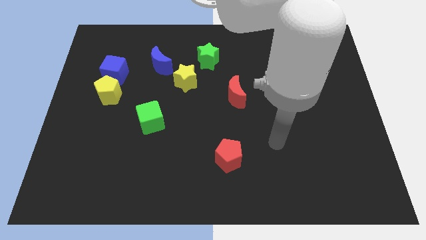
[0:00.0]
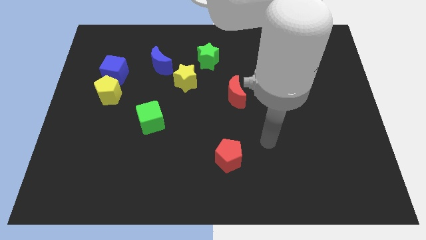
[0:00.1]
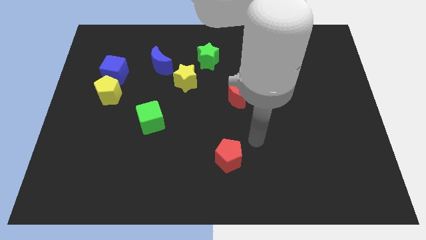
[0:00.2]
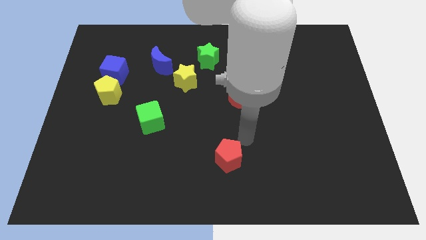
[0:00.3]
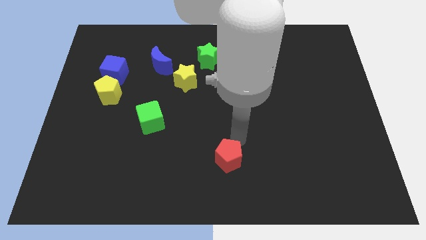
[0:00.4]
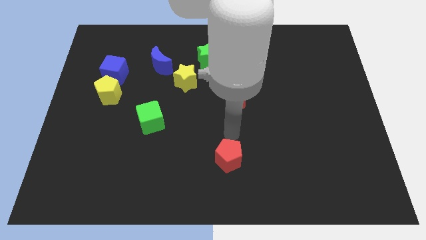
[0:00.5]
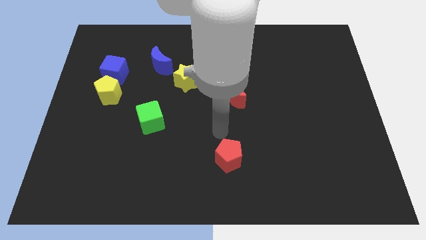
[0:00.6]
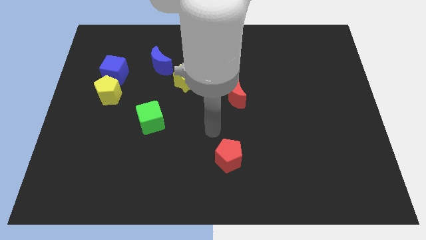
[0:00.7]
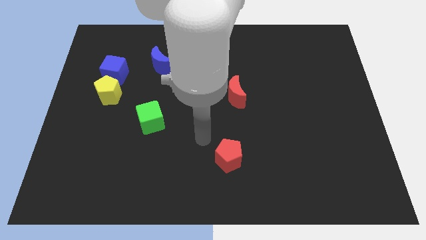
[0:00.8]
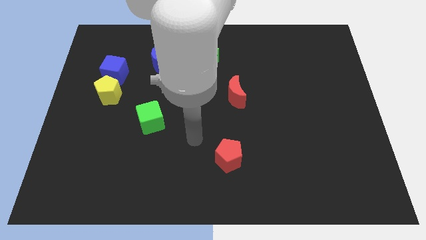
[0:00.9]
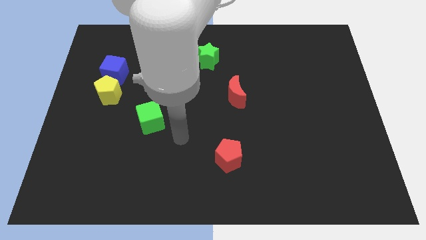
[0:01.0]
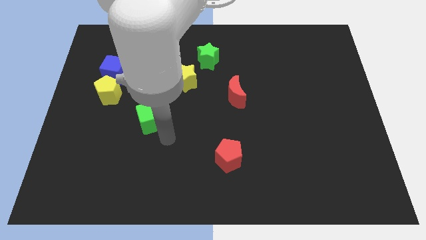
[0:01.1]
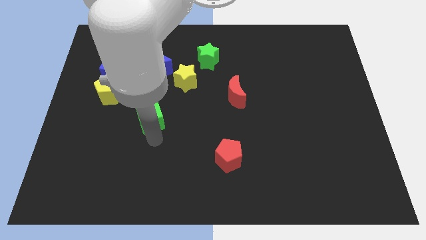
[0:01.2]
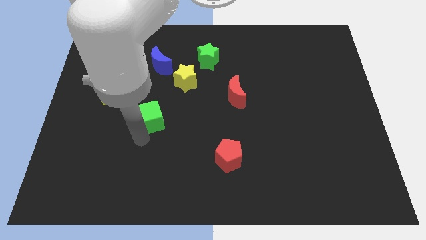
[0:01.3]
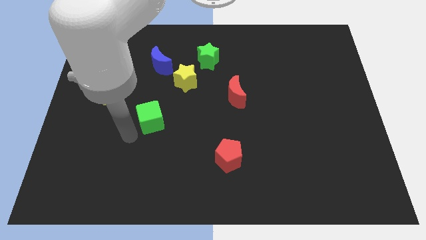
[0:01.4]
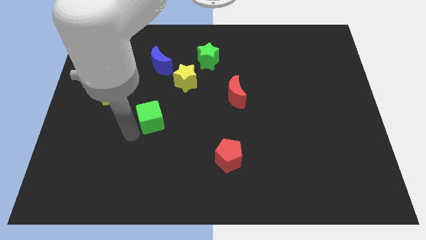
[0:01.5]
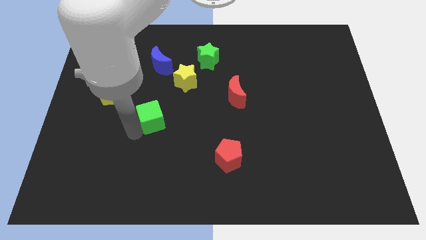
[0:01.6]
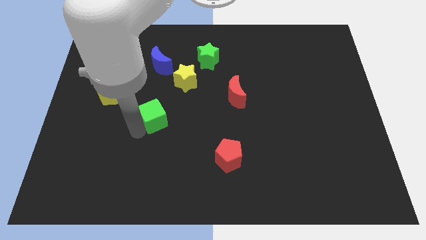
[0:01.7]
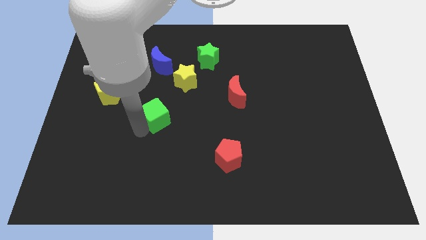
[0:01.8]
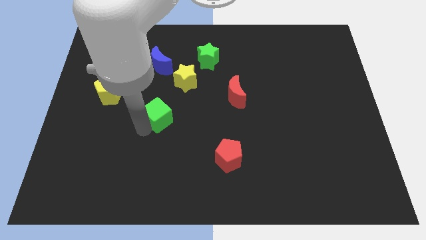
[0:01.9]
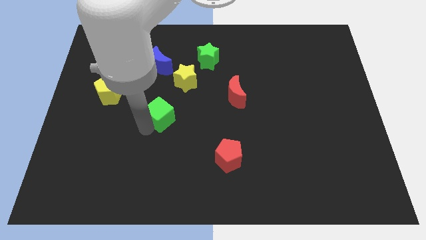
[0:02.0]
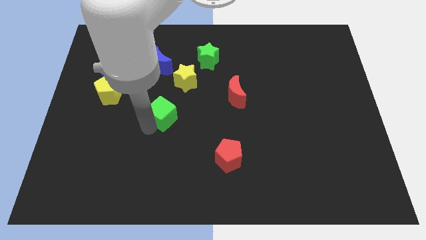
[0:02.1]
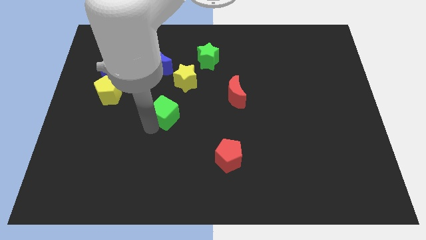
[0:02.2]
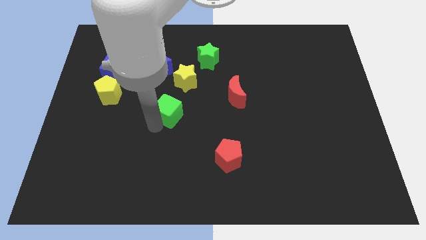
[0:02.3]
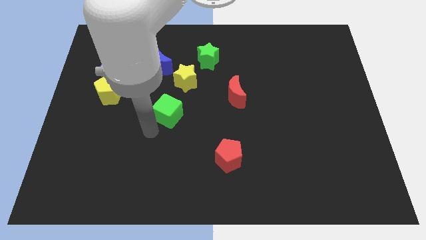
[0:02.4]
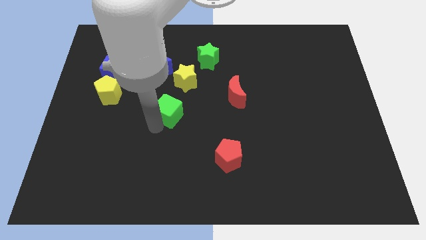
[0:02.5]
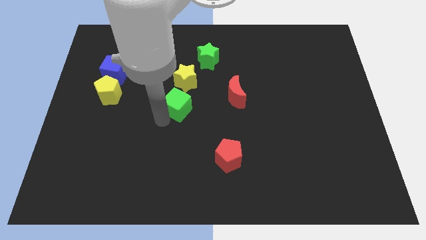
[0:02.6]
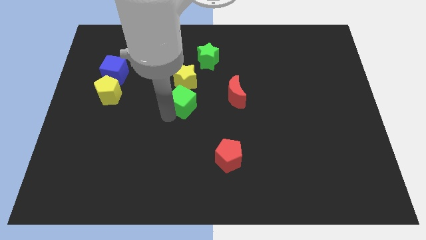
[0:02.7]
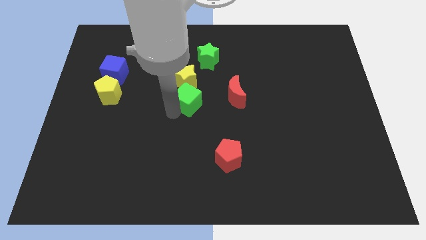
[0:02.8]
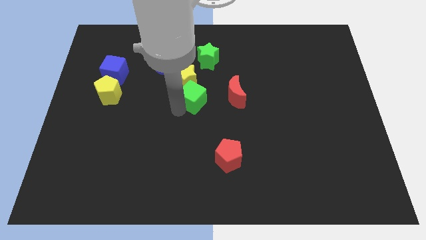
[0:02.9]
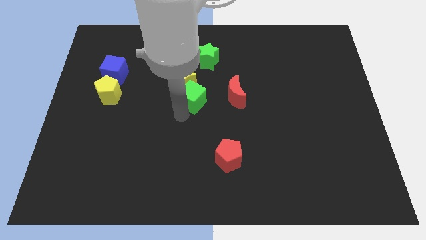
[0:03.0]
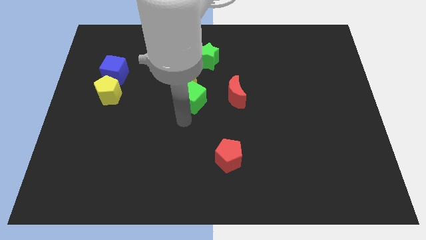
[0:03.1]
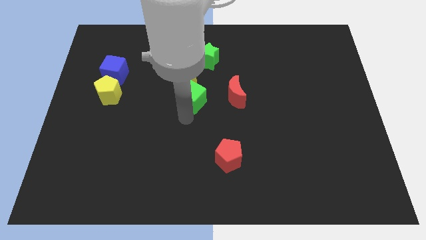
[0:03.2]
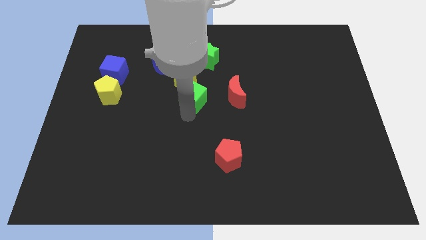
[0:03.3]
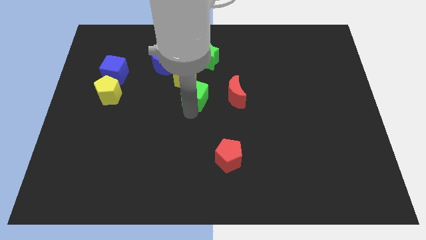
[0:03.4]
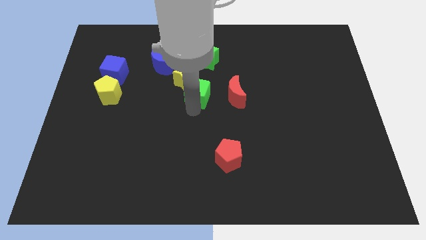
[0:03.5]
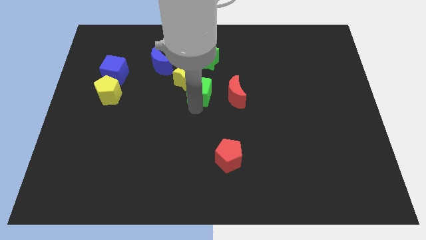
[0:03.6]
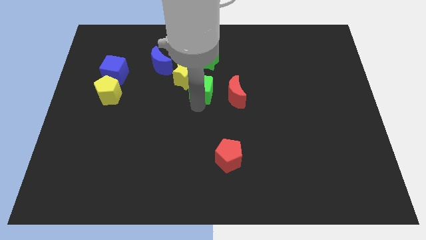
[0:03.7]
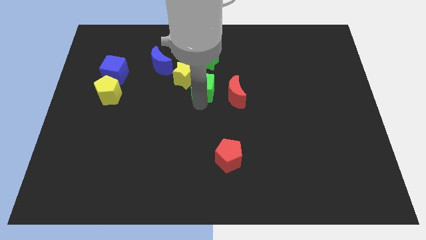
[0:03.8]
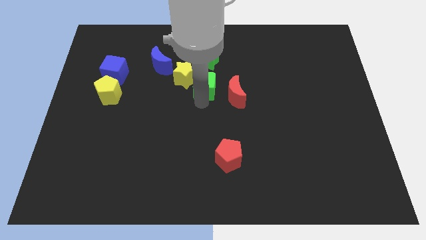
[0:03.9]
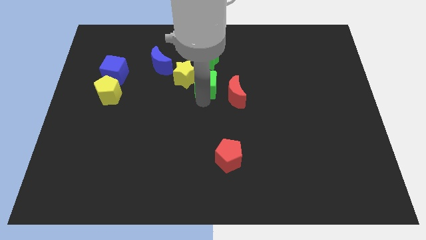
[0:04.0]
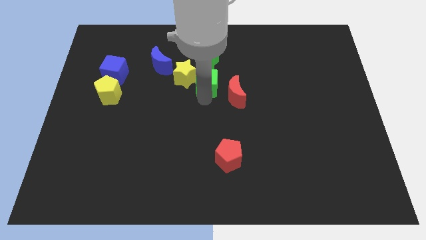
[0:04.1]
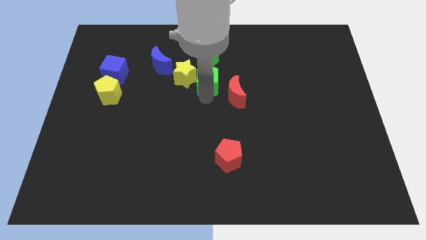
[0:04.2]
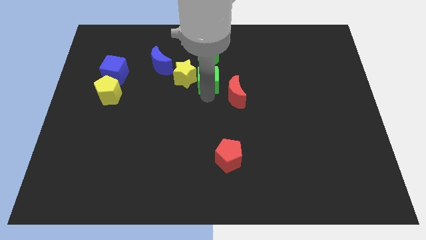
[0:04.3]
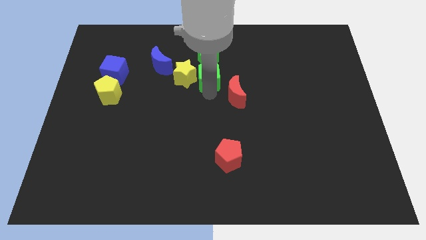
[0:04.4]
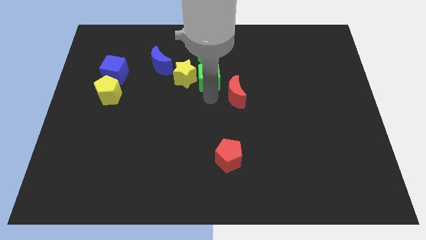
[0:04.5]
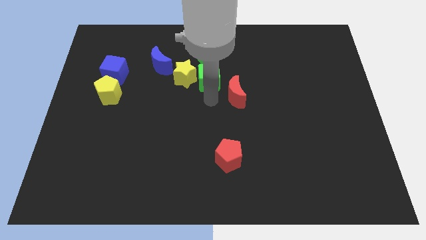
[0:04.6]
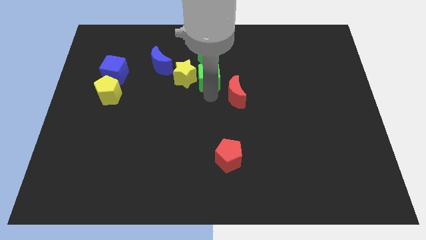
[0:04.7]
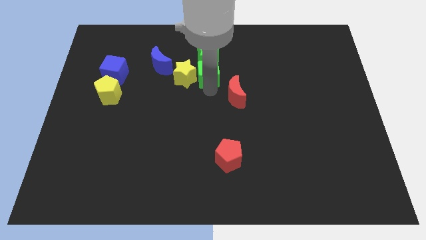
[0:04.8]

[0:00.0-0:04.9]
slide the green cube next to the green star

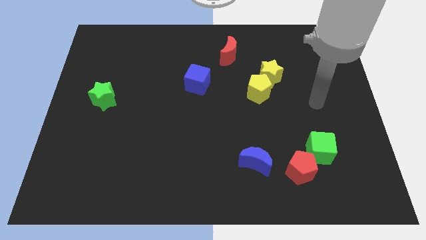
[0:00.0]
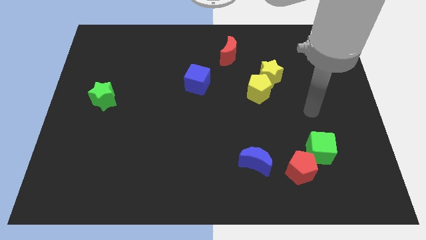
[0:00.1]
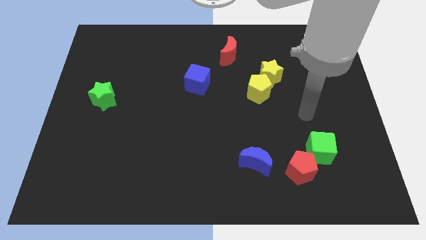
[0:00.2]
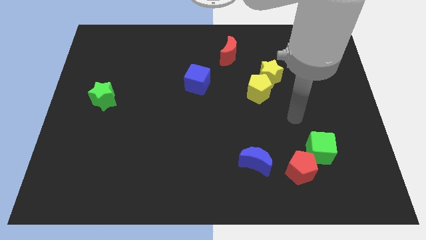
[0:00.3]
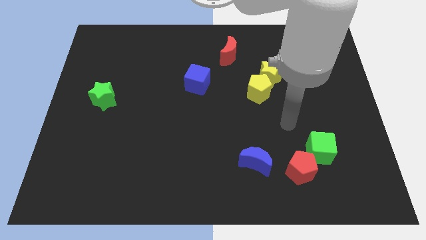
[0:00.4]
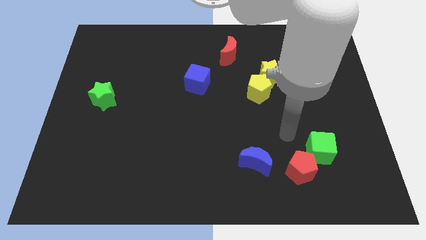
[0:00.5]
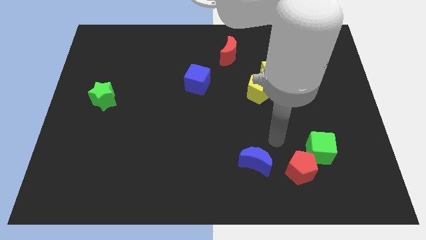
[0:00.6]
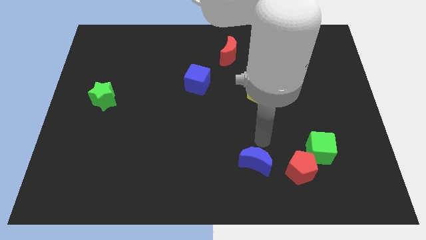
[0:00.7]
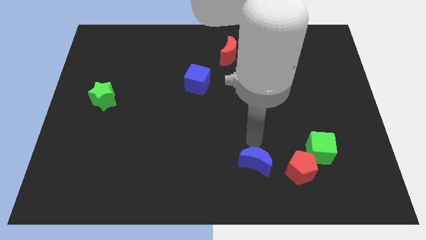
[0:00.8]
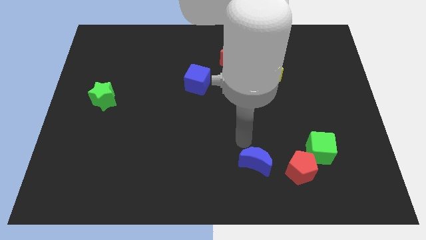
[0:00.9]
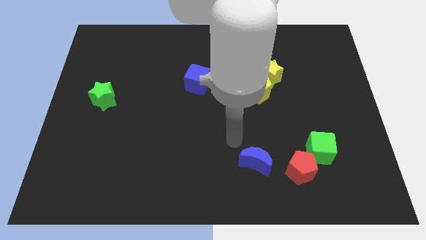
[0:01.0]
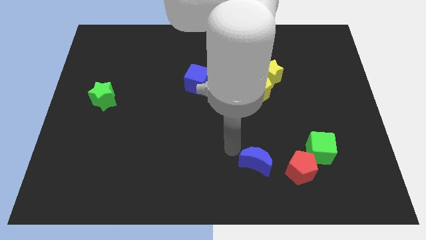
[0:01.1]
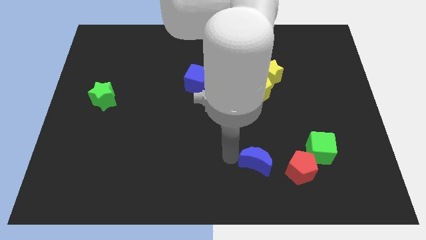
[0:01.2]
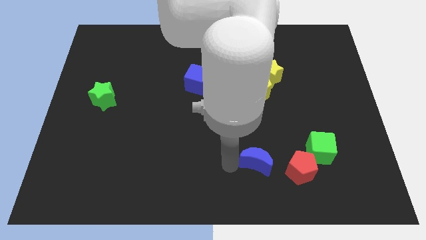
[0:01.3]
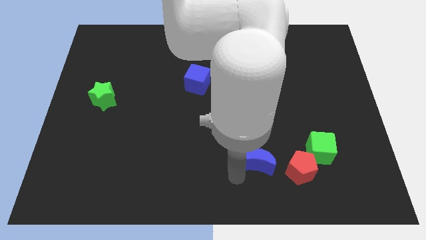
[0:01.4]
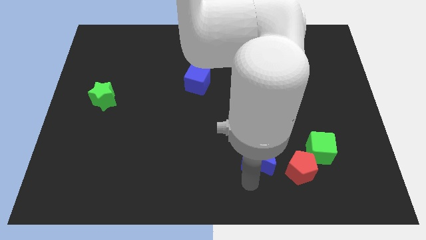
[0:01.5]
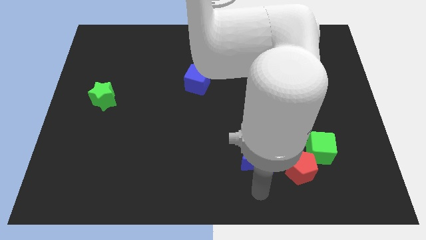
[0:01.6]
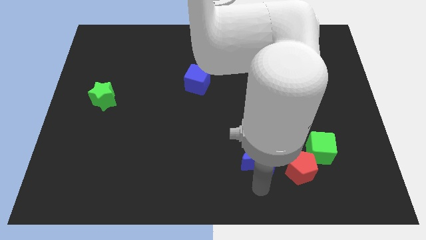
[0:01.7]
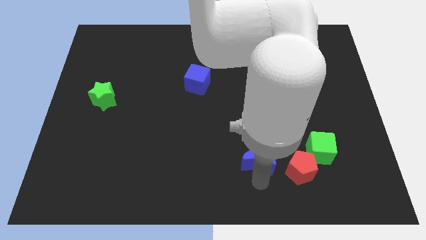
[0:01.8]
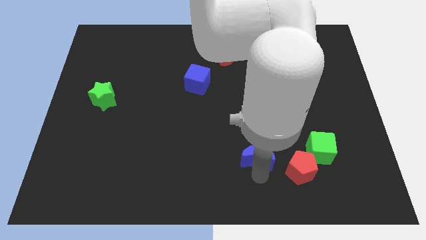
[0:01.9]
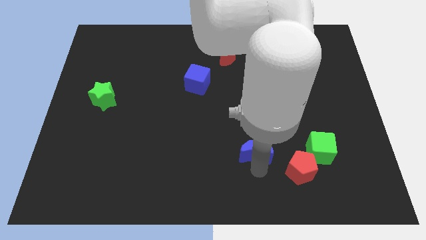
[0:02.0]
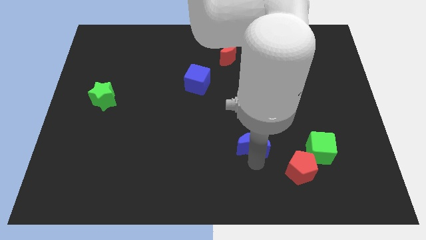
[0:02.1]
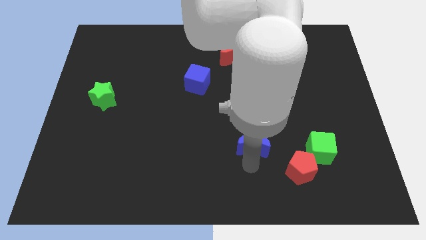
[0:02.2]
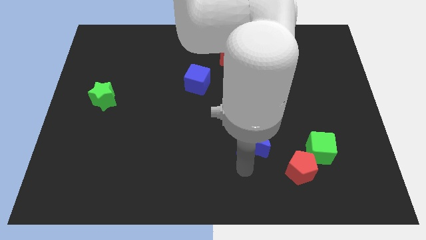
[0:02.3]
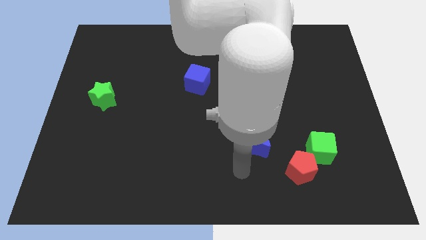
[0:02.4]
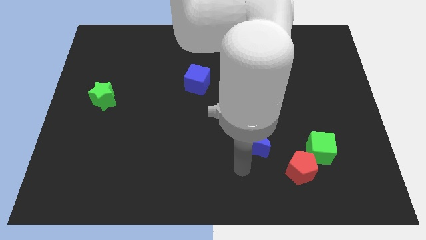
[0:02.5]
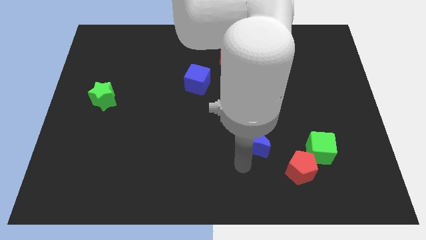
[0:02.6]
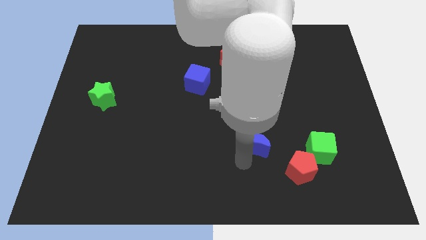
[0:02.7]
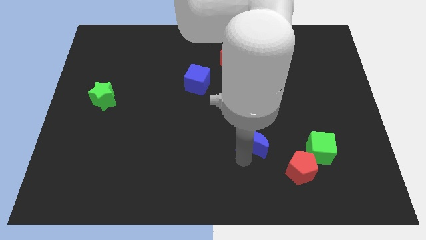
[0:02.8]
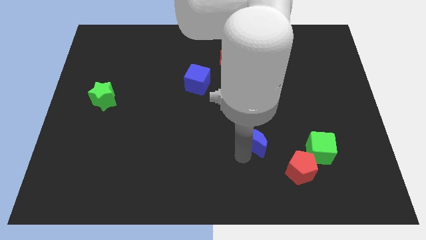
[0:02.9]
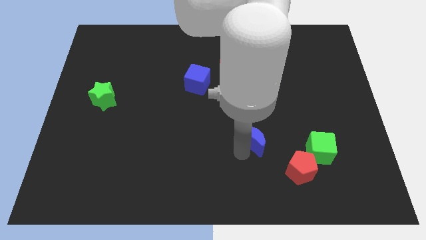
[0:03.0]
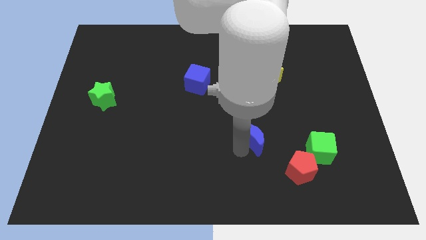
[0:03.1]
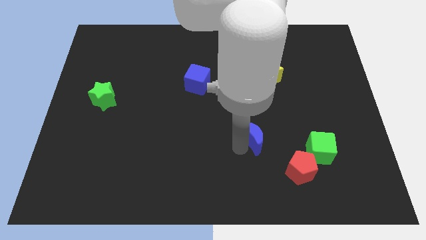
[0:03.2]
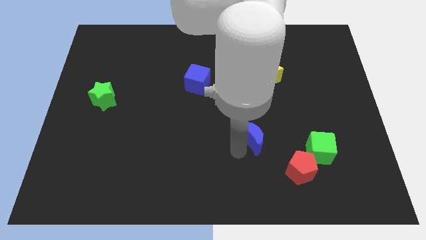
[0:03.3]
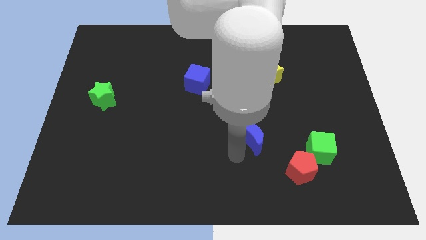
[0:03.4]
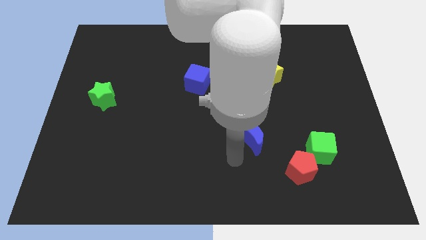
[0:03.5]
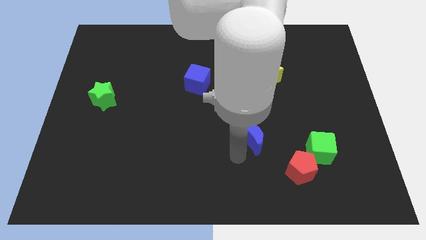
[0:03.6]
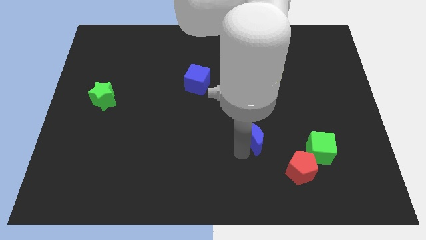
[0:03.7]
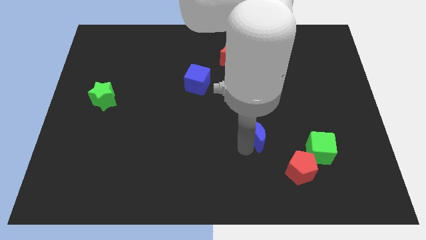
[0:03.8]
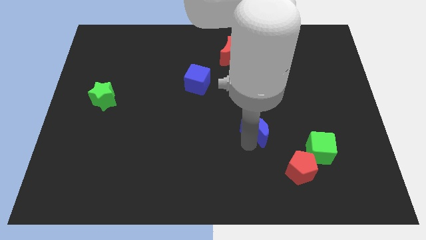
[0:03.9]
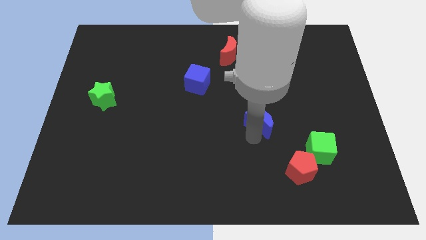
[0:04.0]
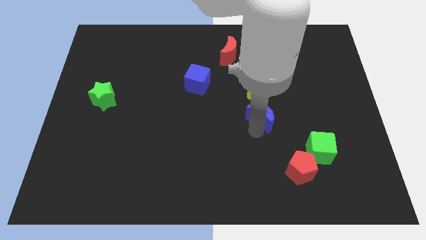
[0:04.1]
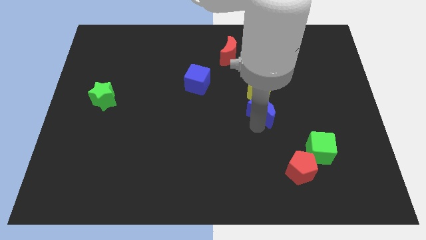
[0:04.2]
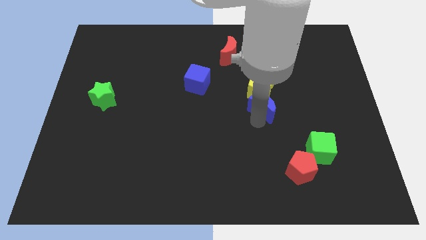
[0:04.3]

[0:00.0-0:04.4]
move the blue moon to the yellow pentagon
